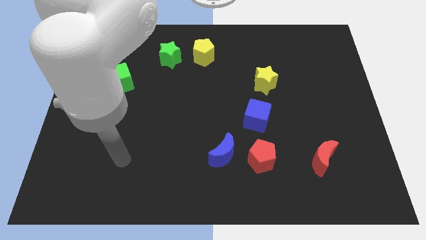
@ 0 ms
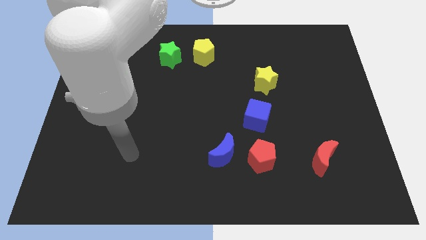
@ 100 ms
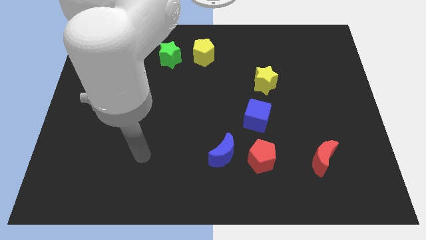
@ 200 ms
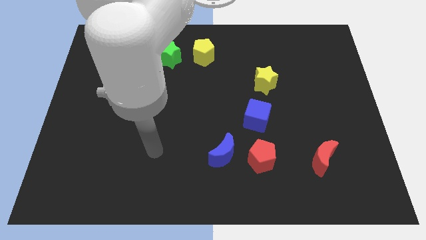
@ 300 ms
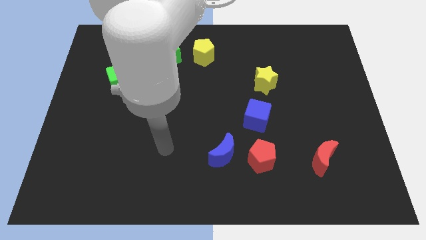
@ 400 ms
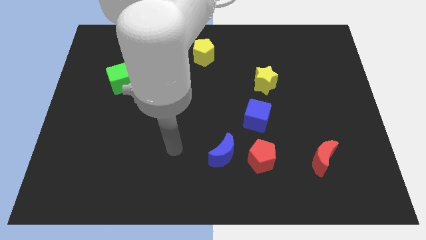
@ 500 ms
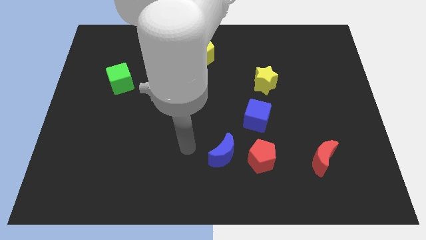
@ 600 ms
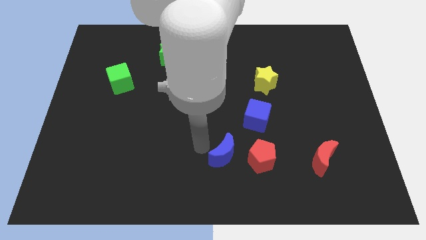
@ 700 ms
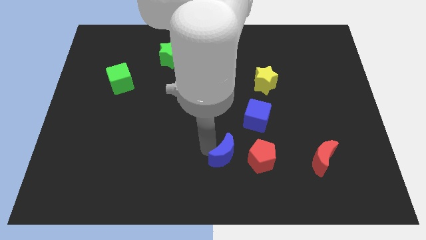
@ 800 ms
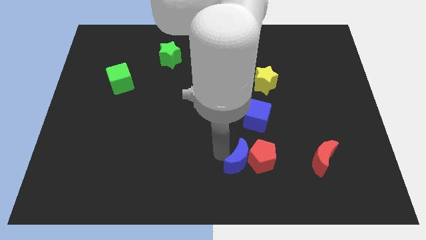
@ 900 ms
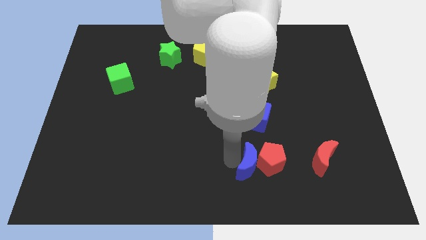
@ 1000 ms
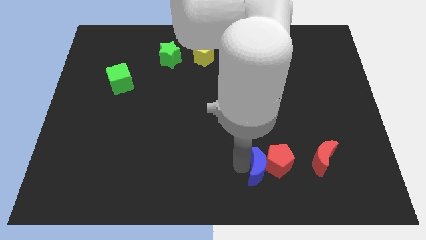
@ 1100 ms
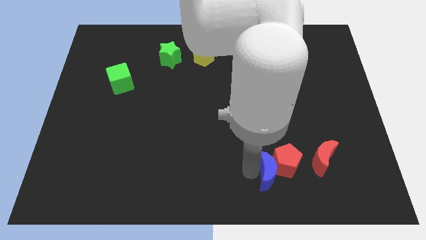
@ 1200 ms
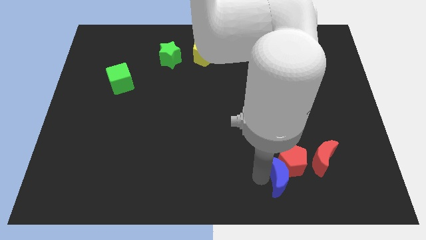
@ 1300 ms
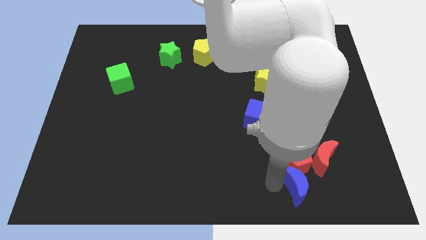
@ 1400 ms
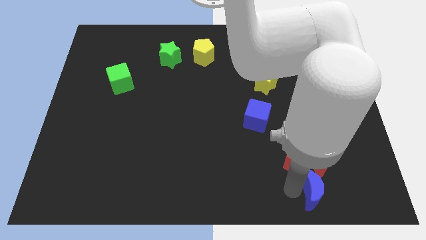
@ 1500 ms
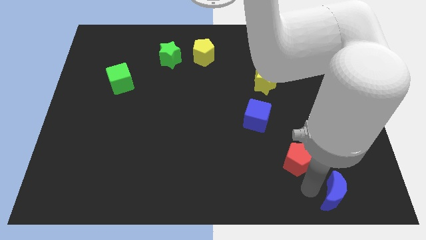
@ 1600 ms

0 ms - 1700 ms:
separate the red pentagon from the blue moon

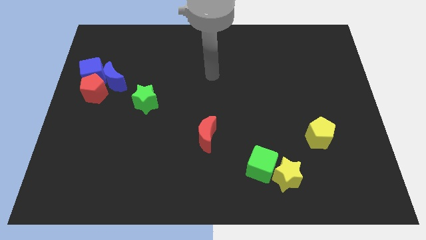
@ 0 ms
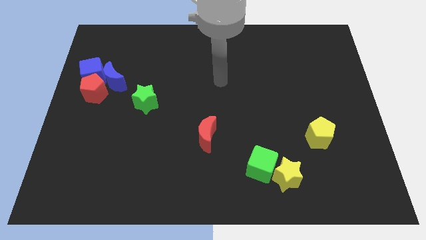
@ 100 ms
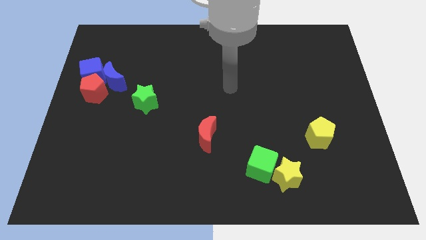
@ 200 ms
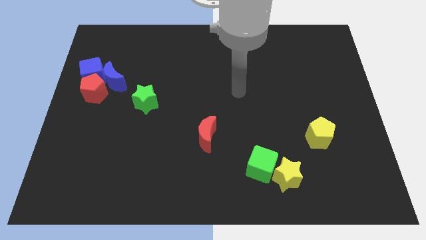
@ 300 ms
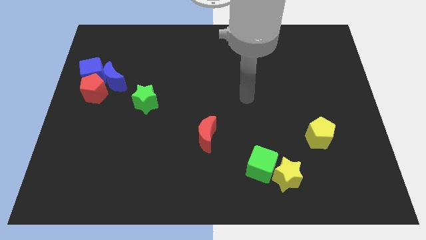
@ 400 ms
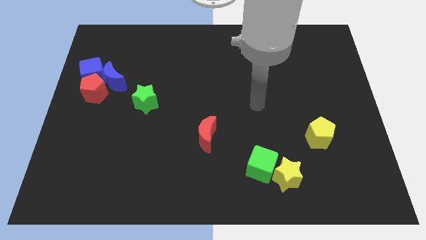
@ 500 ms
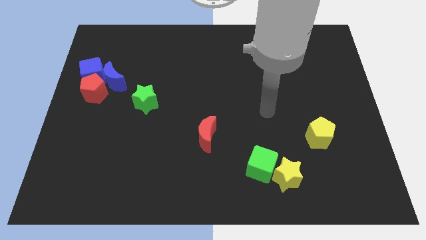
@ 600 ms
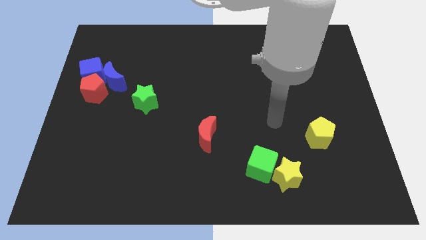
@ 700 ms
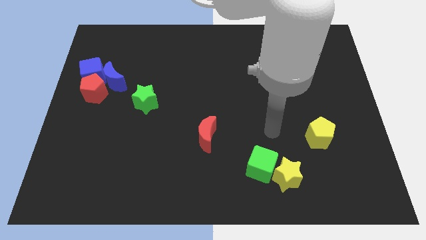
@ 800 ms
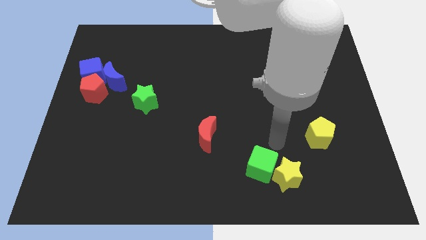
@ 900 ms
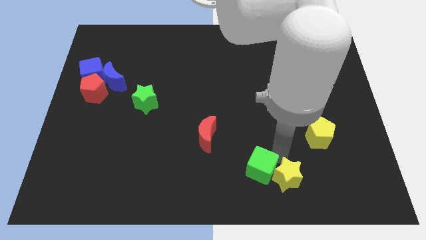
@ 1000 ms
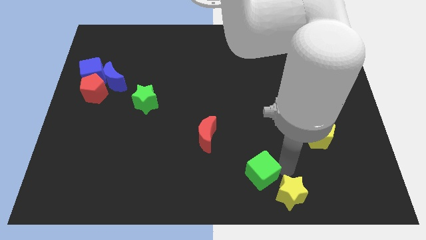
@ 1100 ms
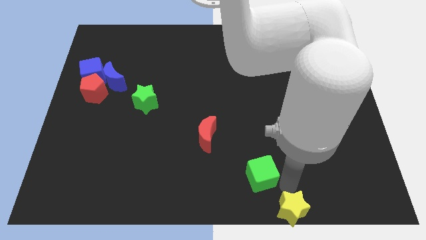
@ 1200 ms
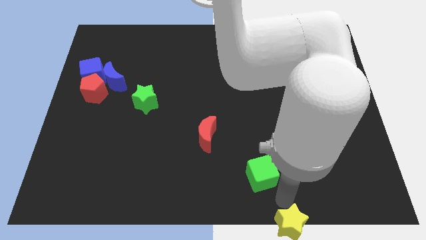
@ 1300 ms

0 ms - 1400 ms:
separate the green cube from the yellow star

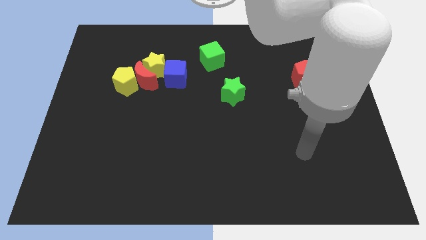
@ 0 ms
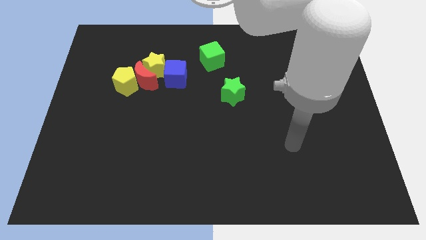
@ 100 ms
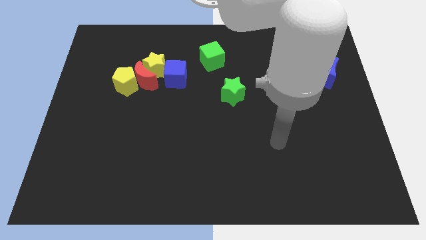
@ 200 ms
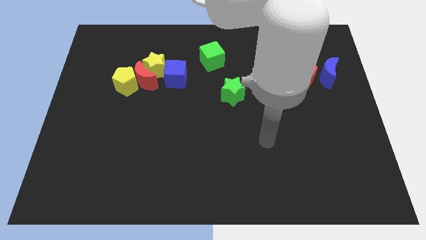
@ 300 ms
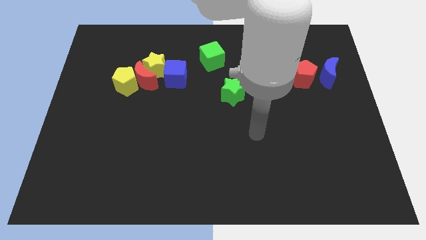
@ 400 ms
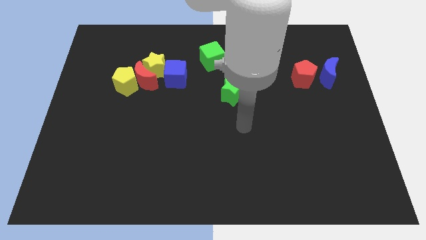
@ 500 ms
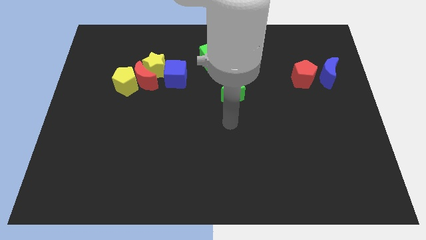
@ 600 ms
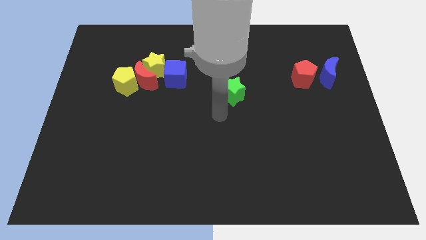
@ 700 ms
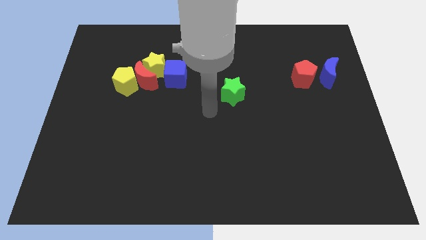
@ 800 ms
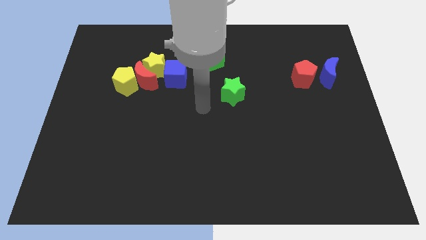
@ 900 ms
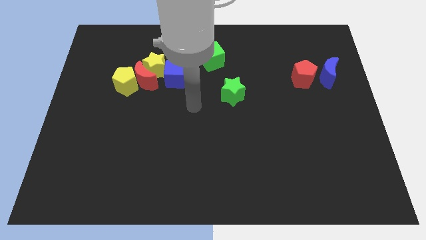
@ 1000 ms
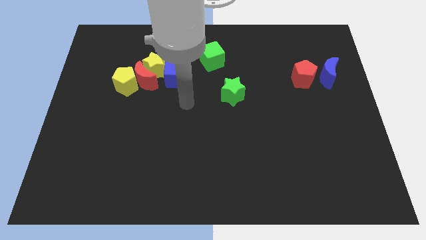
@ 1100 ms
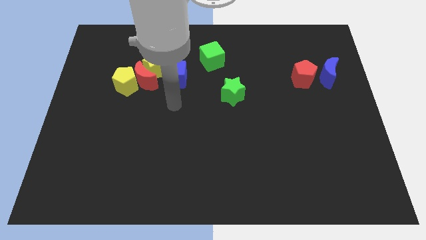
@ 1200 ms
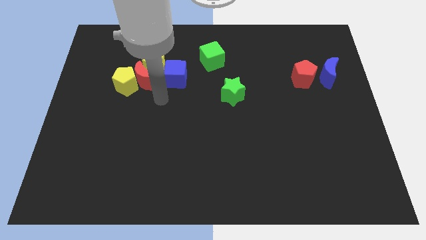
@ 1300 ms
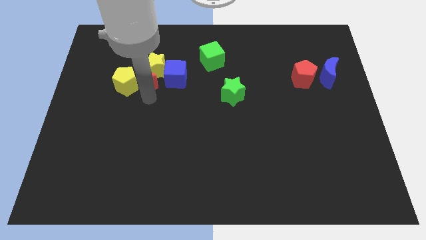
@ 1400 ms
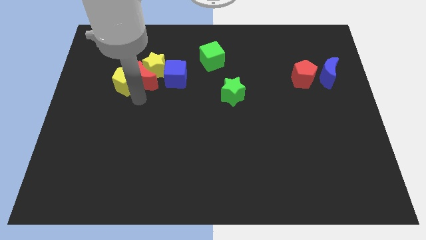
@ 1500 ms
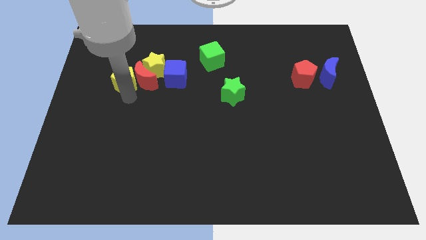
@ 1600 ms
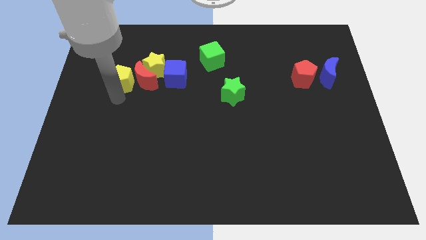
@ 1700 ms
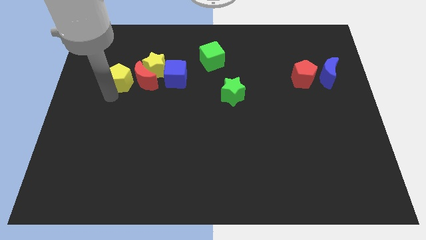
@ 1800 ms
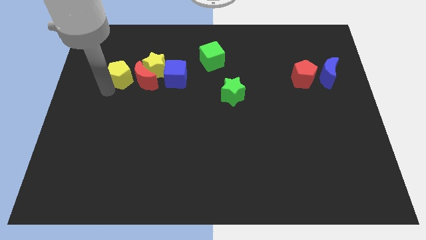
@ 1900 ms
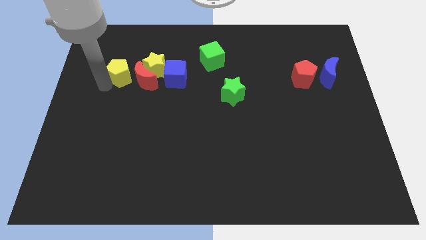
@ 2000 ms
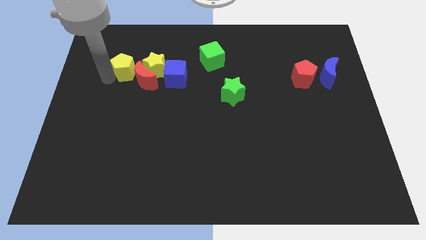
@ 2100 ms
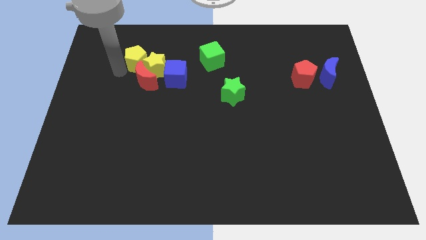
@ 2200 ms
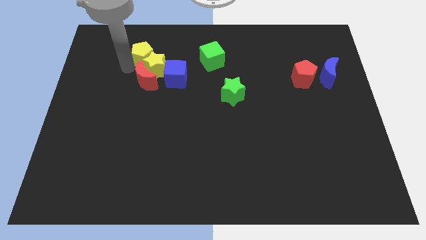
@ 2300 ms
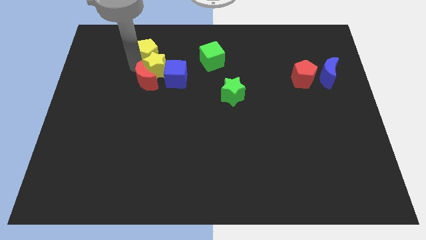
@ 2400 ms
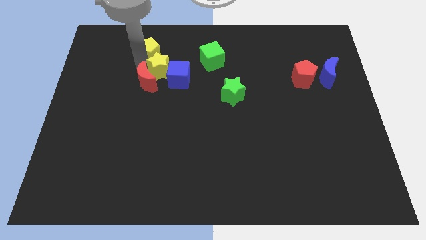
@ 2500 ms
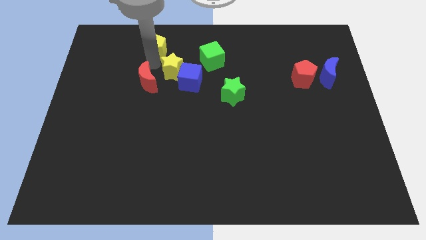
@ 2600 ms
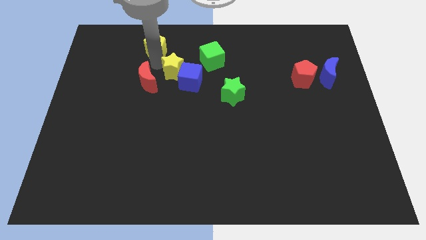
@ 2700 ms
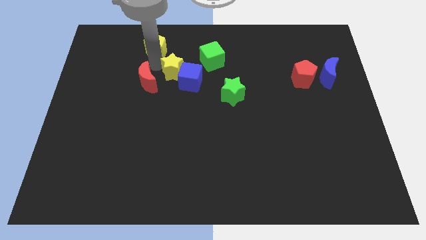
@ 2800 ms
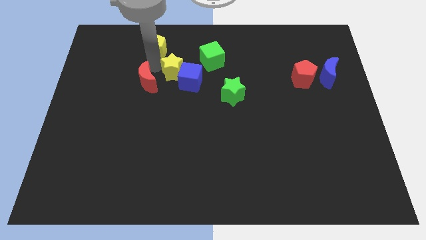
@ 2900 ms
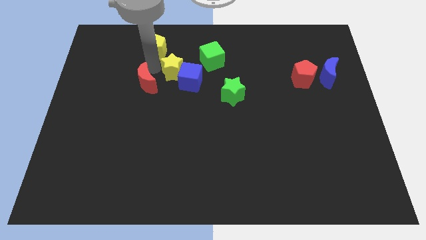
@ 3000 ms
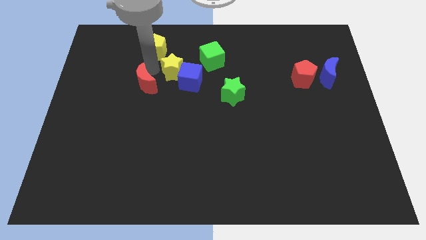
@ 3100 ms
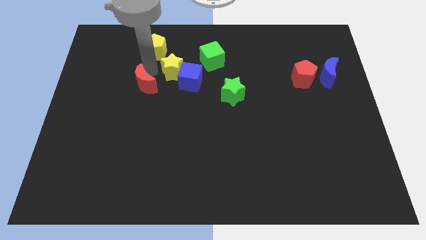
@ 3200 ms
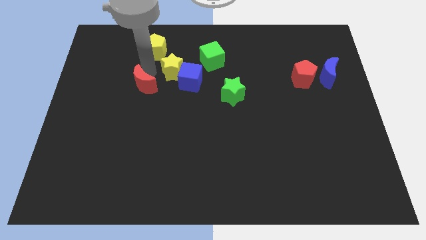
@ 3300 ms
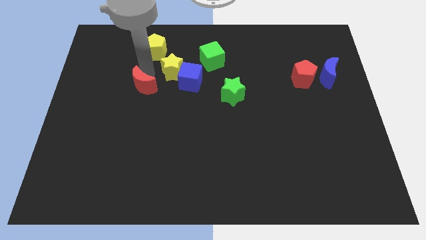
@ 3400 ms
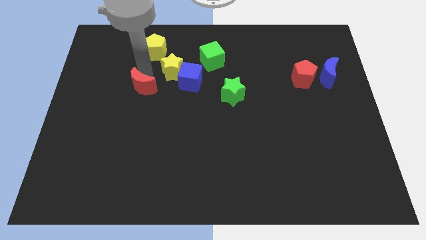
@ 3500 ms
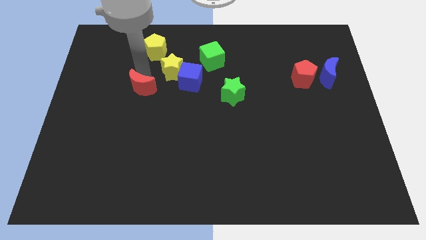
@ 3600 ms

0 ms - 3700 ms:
move the red moon away from the group of blocks

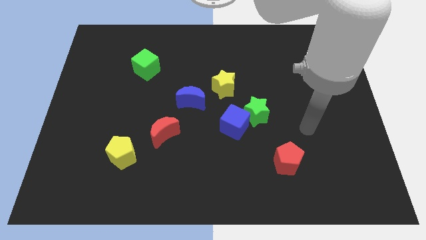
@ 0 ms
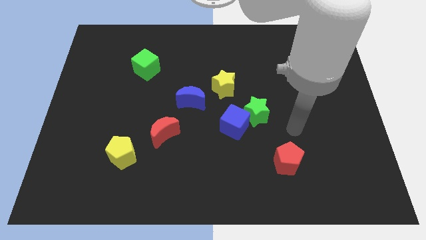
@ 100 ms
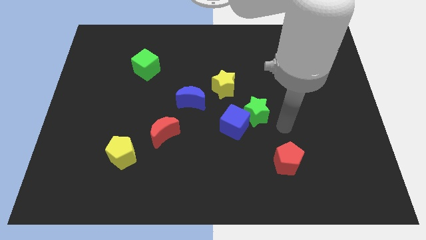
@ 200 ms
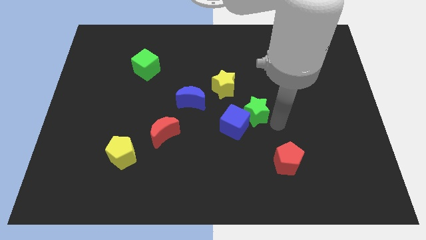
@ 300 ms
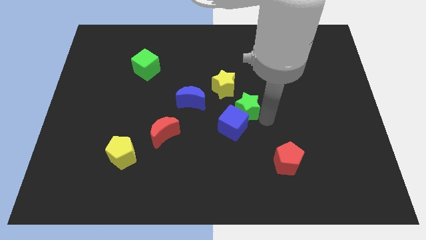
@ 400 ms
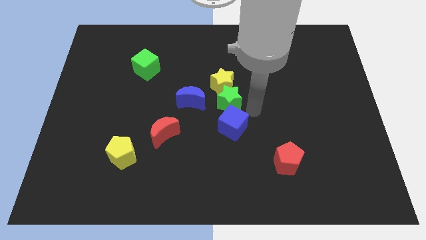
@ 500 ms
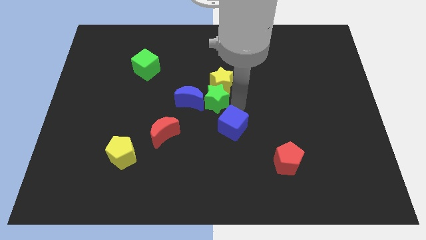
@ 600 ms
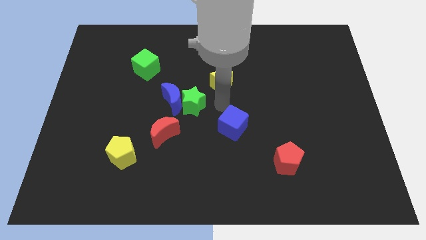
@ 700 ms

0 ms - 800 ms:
pull the blue cube apart from the green star

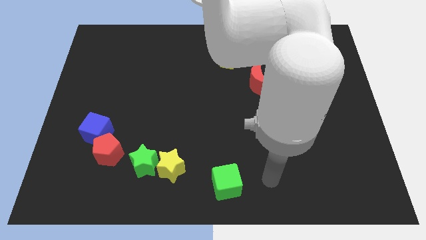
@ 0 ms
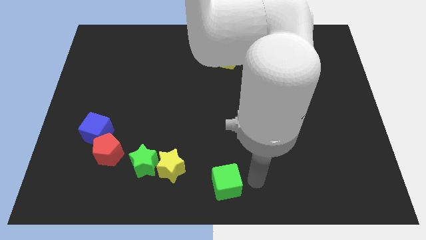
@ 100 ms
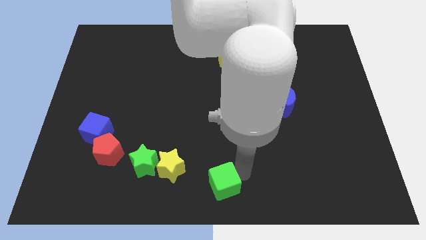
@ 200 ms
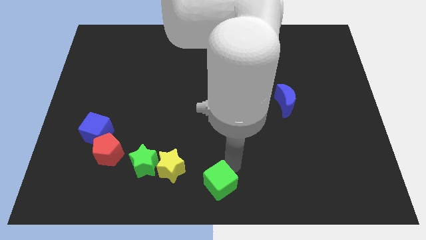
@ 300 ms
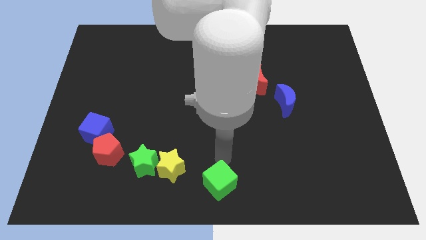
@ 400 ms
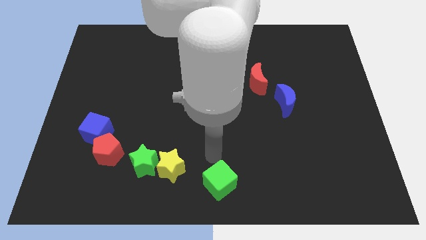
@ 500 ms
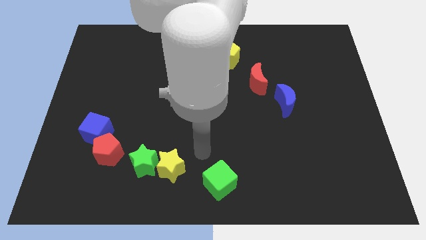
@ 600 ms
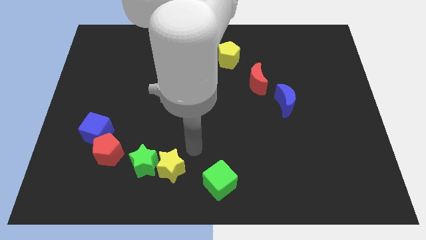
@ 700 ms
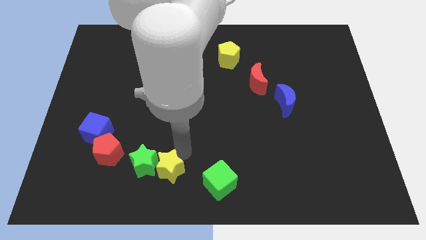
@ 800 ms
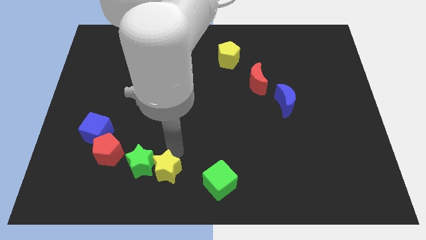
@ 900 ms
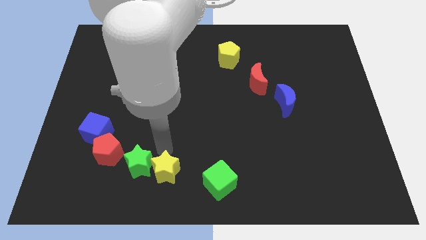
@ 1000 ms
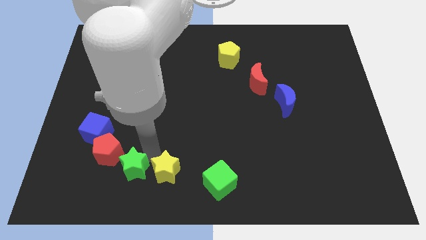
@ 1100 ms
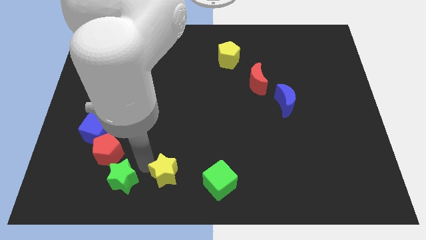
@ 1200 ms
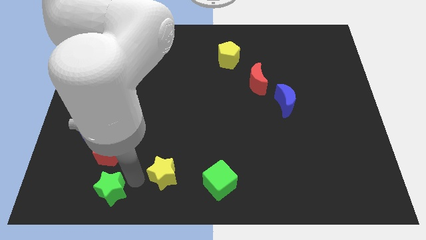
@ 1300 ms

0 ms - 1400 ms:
pull the yellow star apart from the green star

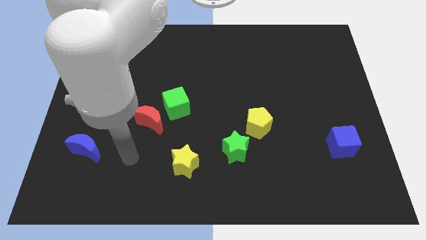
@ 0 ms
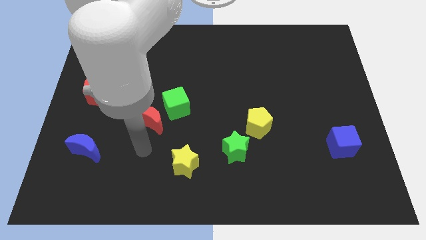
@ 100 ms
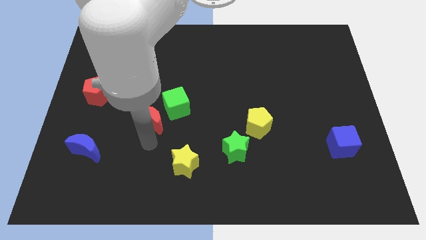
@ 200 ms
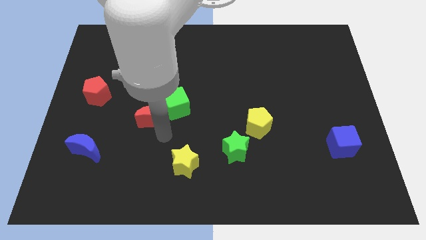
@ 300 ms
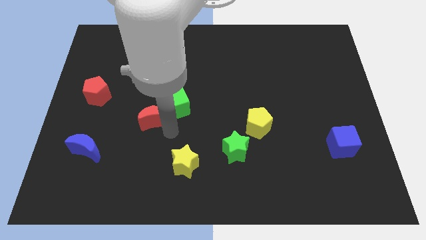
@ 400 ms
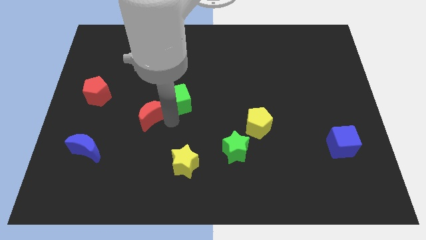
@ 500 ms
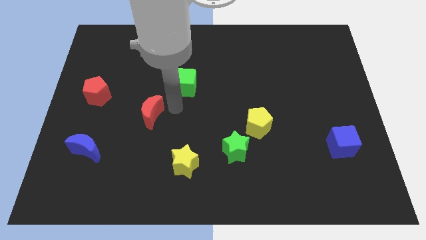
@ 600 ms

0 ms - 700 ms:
move the red moon away from the green cube
